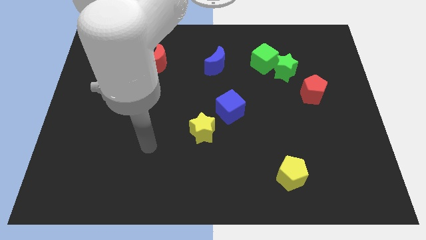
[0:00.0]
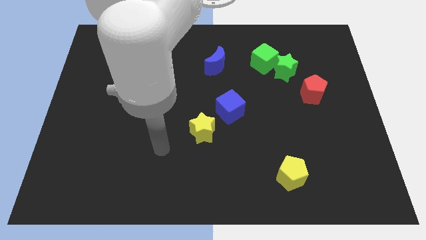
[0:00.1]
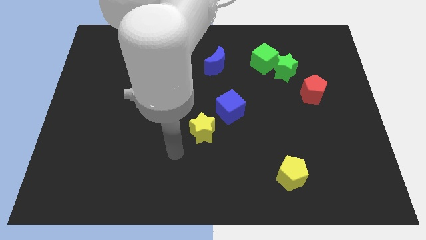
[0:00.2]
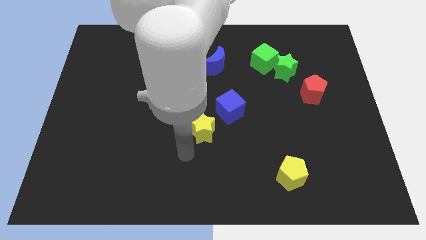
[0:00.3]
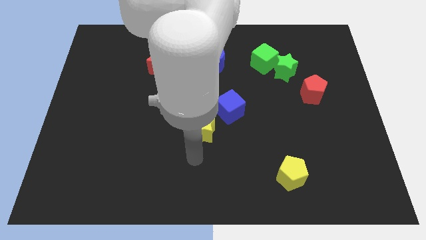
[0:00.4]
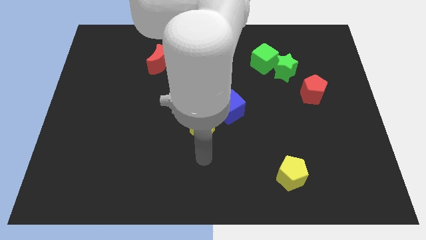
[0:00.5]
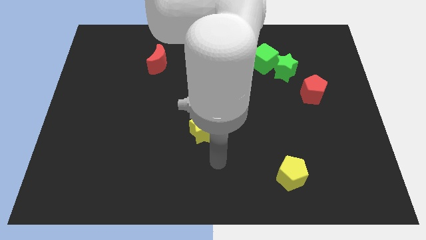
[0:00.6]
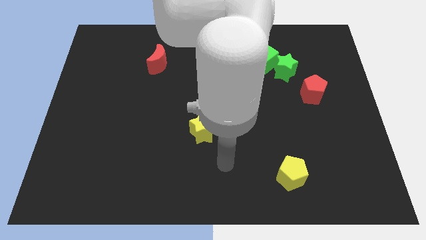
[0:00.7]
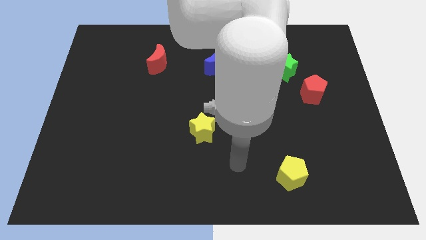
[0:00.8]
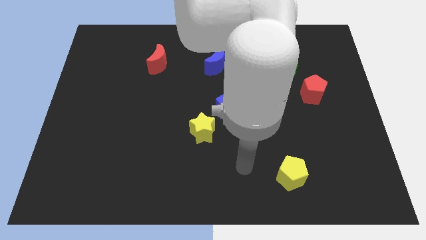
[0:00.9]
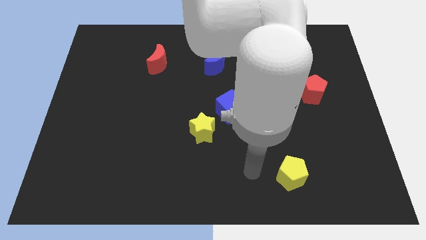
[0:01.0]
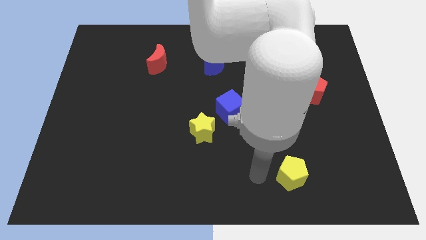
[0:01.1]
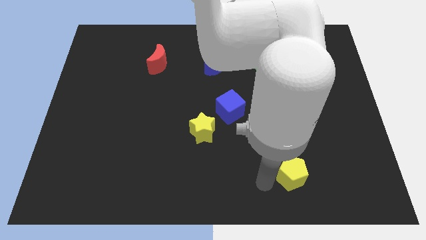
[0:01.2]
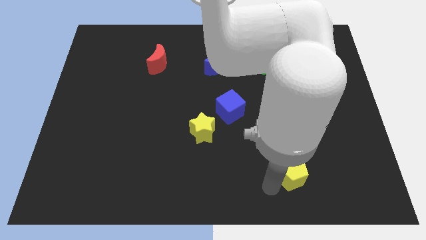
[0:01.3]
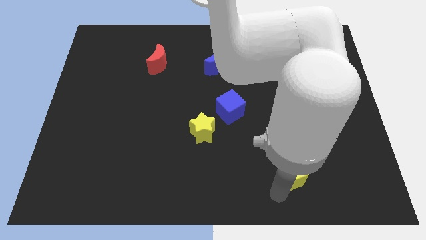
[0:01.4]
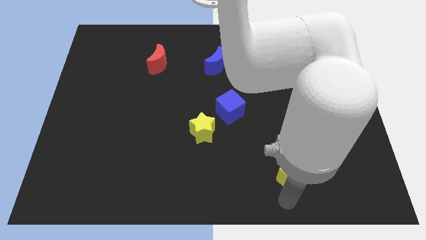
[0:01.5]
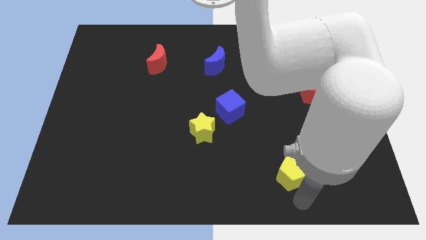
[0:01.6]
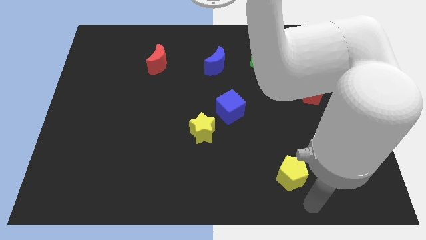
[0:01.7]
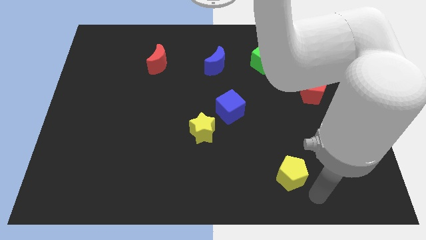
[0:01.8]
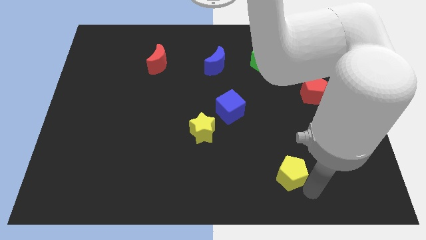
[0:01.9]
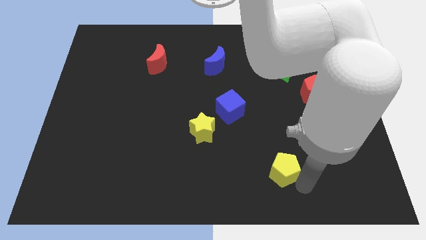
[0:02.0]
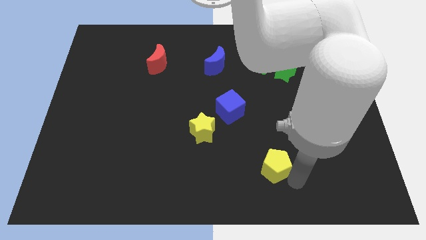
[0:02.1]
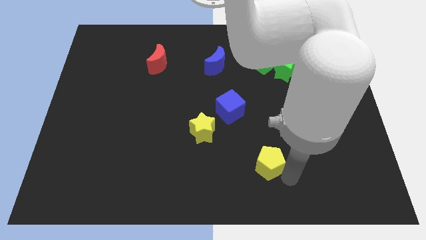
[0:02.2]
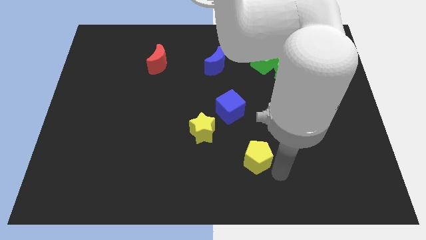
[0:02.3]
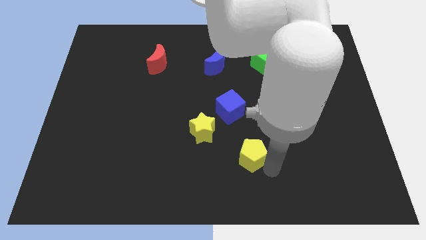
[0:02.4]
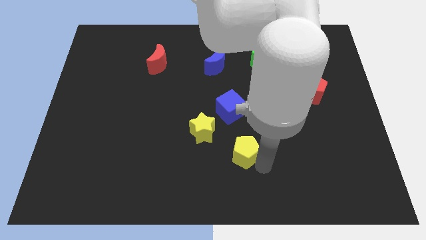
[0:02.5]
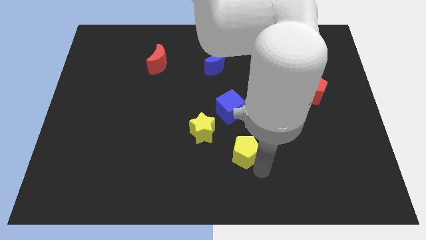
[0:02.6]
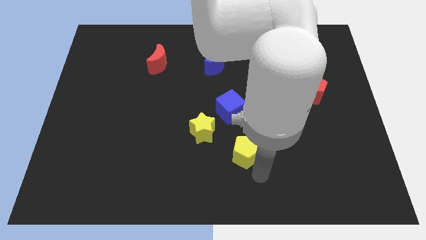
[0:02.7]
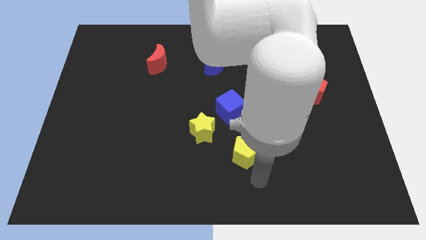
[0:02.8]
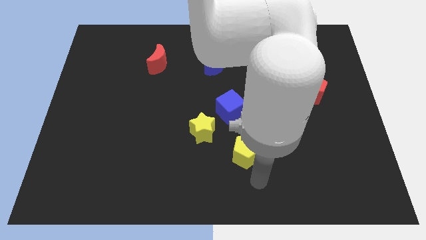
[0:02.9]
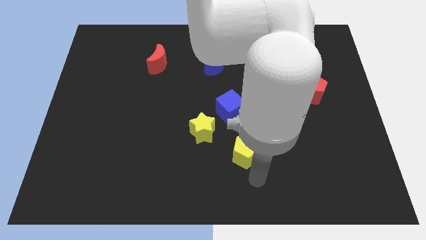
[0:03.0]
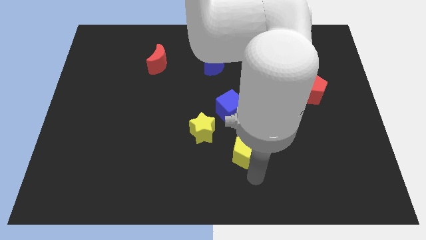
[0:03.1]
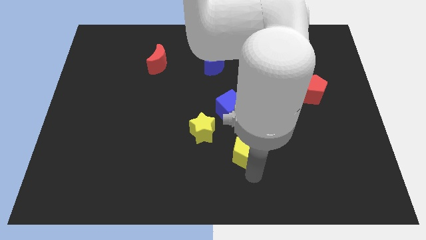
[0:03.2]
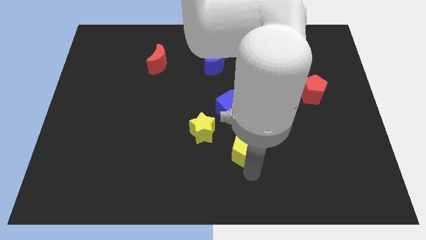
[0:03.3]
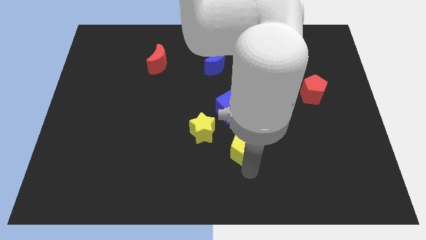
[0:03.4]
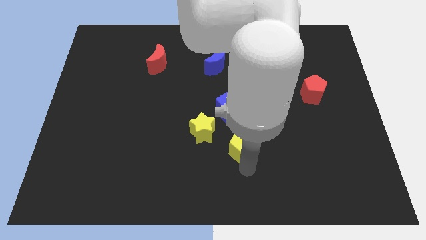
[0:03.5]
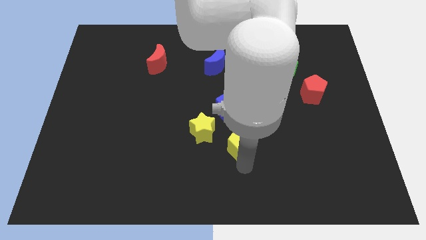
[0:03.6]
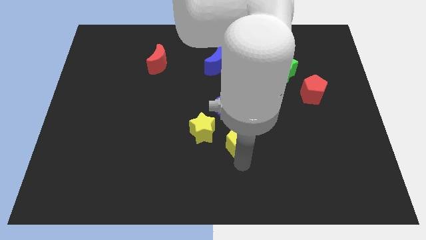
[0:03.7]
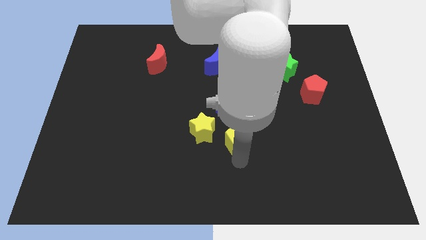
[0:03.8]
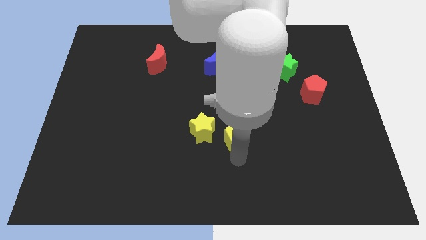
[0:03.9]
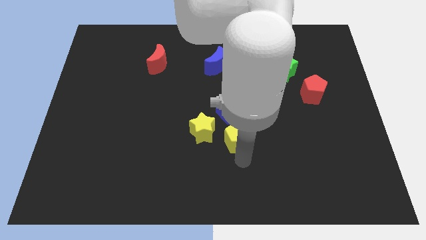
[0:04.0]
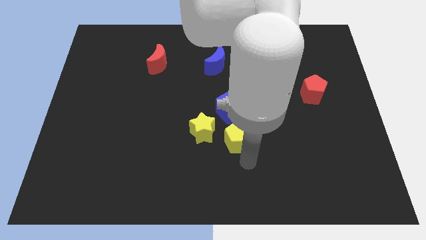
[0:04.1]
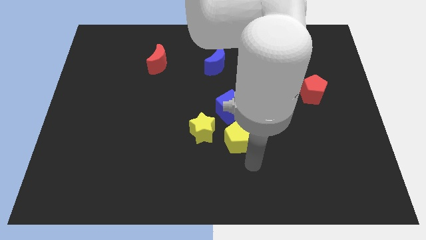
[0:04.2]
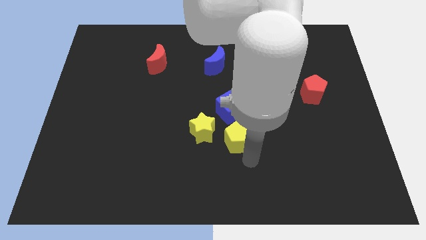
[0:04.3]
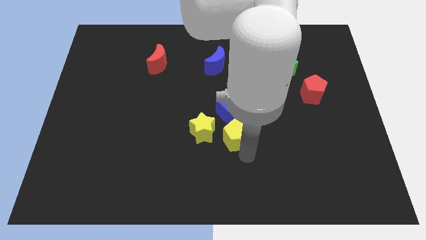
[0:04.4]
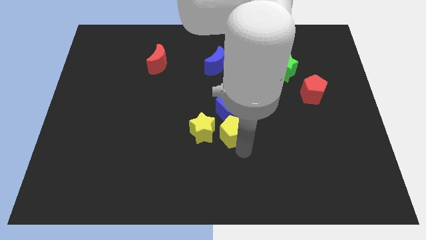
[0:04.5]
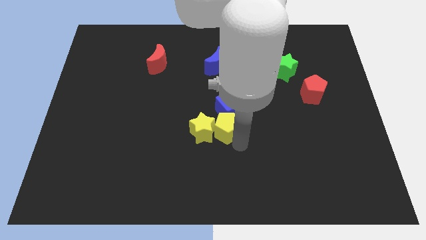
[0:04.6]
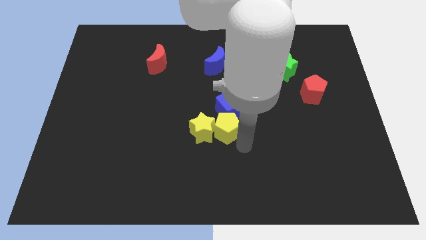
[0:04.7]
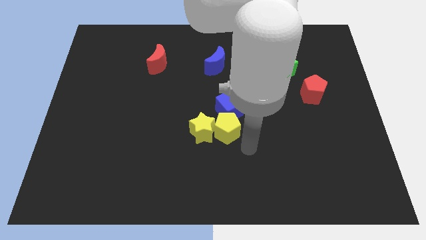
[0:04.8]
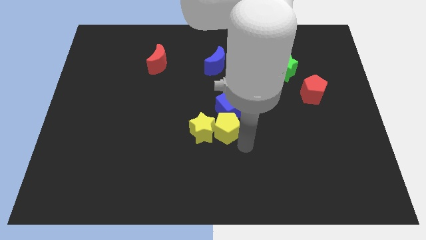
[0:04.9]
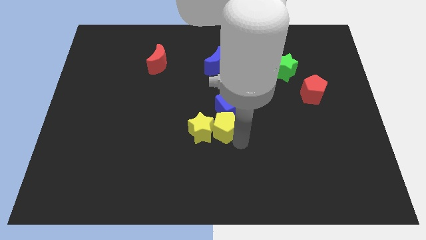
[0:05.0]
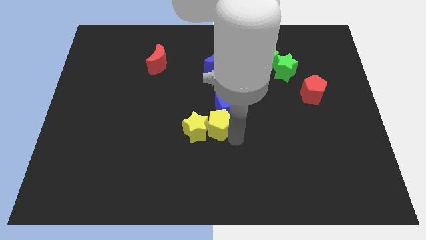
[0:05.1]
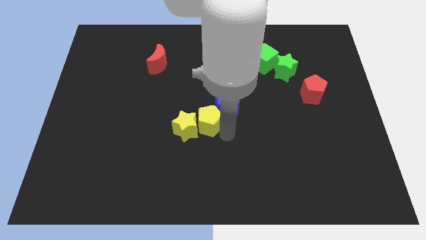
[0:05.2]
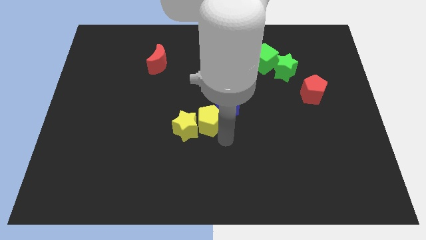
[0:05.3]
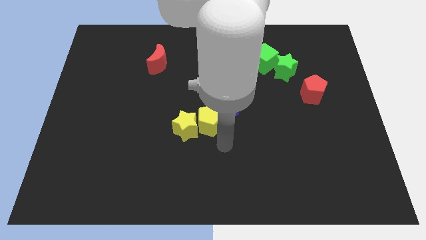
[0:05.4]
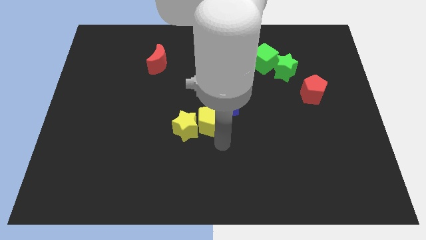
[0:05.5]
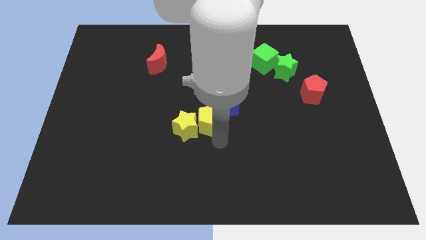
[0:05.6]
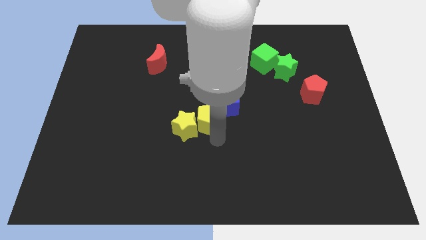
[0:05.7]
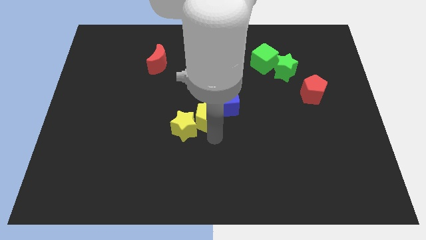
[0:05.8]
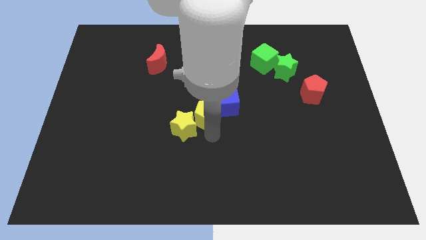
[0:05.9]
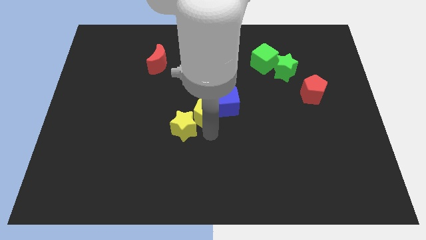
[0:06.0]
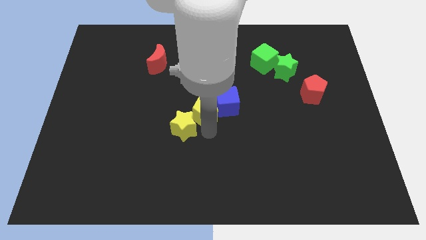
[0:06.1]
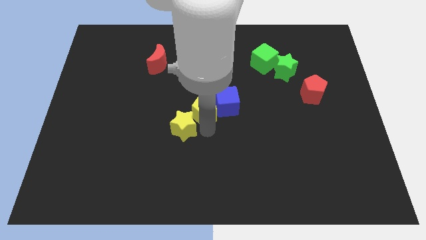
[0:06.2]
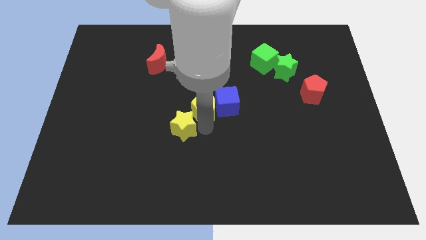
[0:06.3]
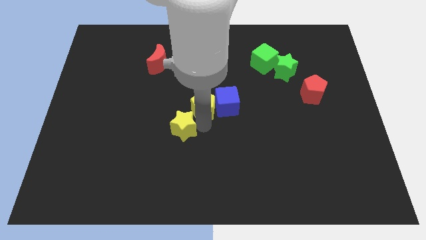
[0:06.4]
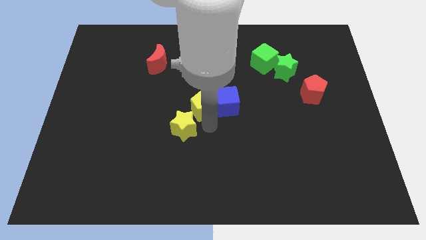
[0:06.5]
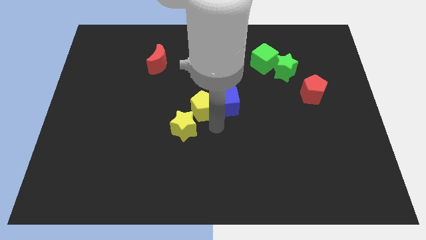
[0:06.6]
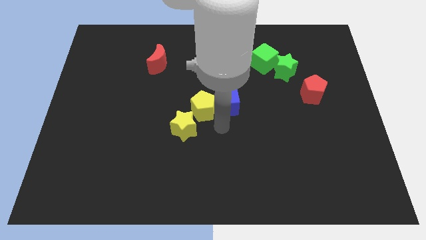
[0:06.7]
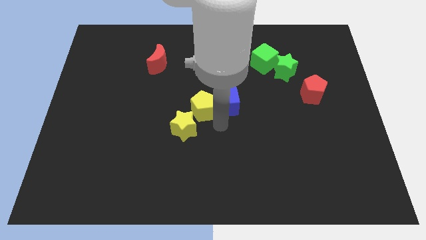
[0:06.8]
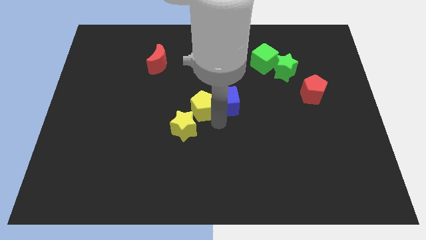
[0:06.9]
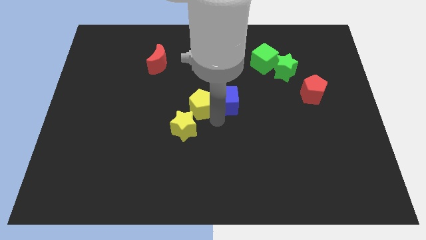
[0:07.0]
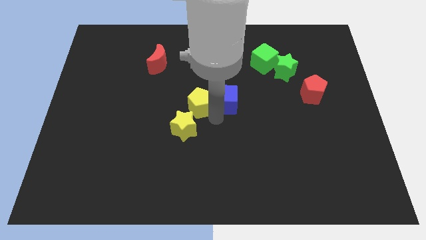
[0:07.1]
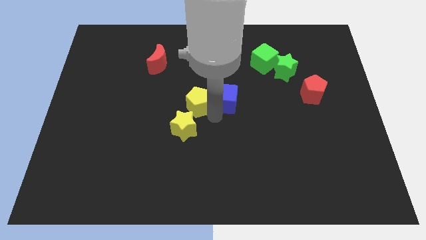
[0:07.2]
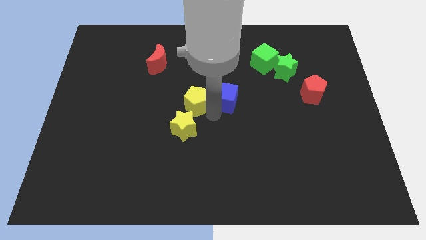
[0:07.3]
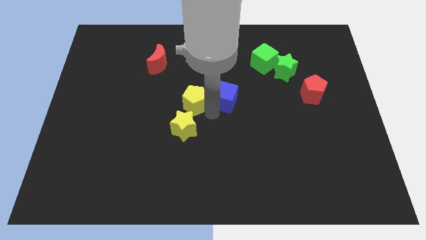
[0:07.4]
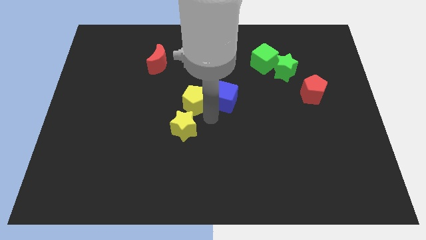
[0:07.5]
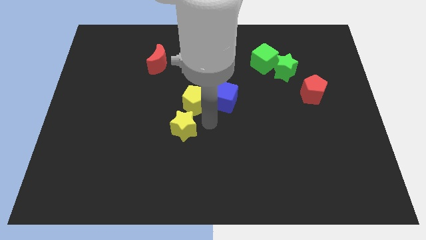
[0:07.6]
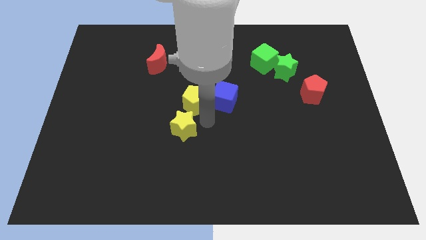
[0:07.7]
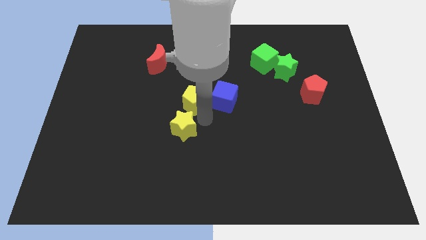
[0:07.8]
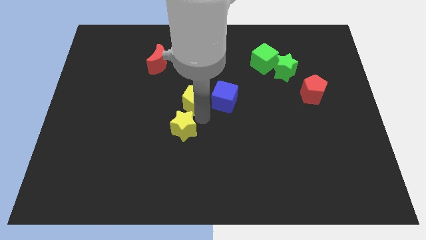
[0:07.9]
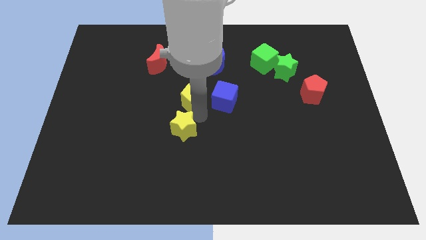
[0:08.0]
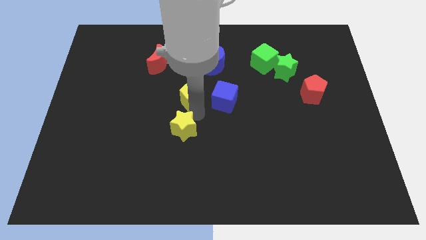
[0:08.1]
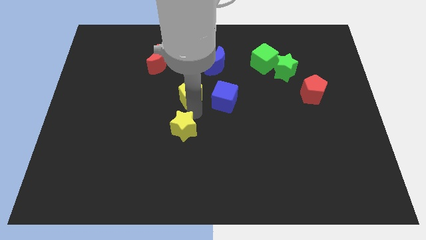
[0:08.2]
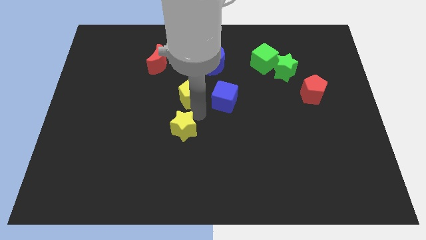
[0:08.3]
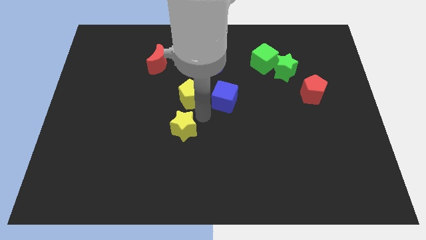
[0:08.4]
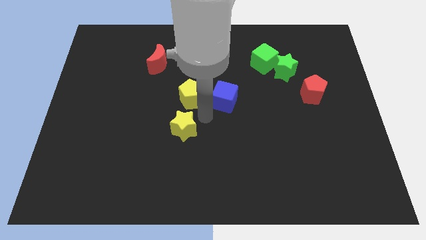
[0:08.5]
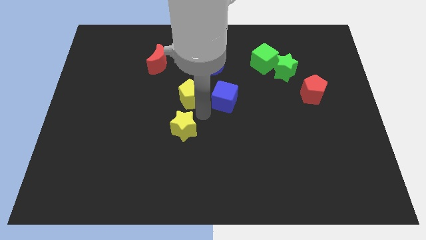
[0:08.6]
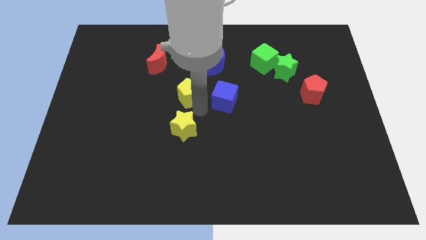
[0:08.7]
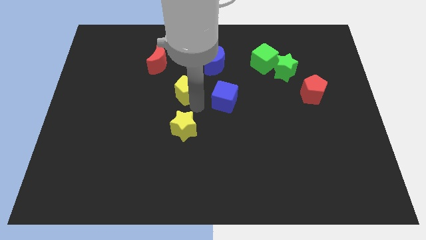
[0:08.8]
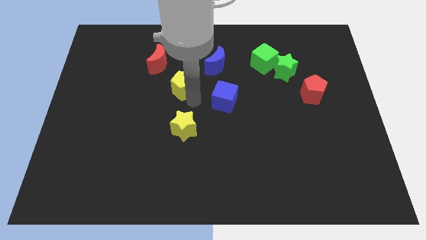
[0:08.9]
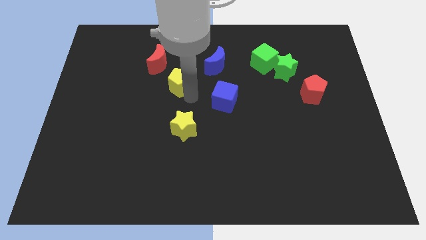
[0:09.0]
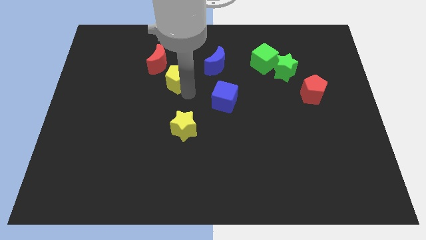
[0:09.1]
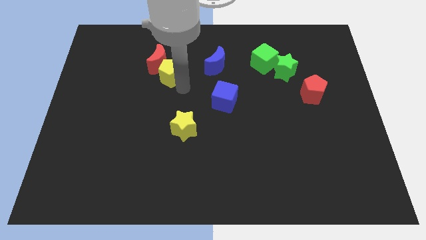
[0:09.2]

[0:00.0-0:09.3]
move the yellow pentagon close to the red moon
